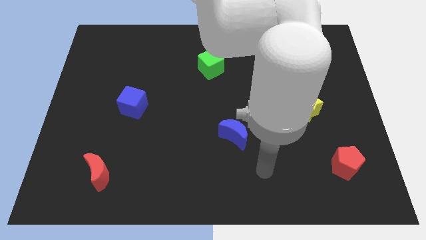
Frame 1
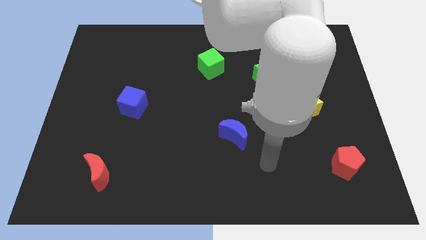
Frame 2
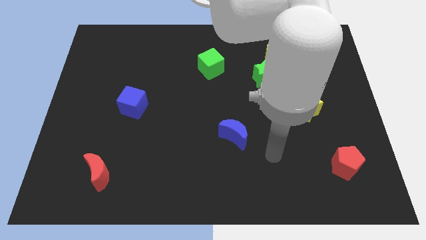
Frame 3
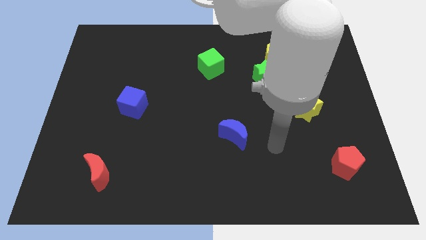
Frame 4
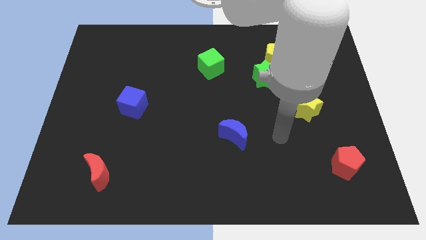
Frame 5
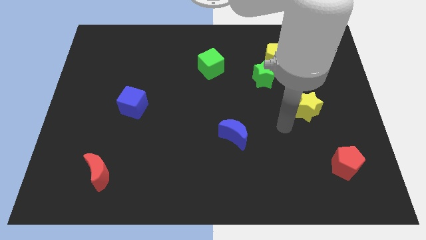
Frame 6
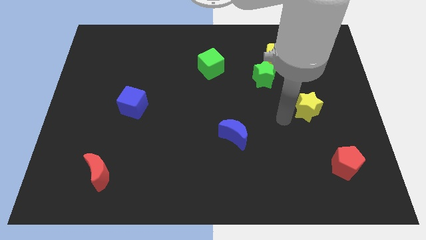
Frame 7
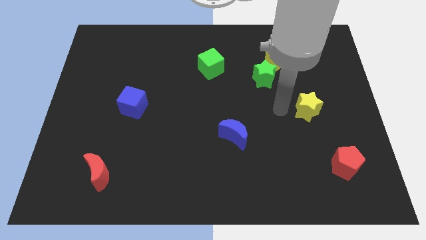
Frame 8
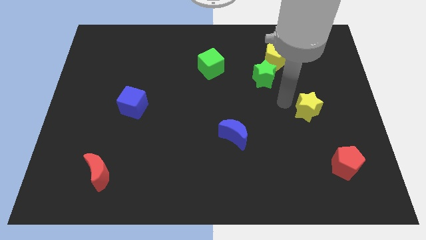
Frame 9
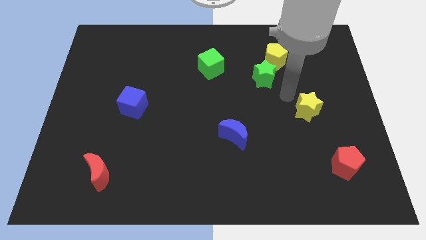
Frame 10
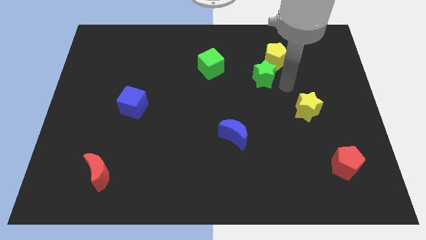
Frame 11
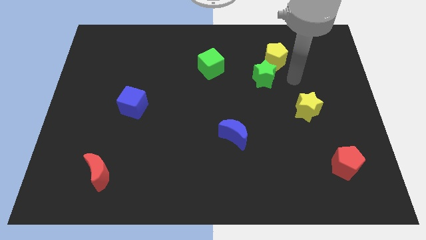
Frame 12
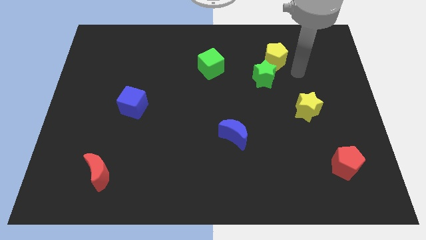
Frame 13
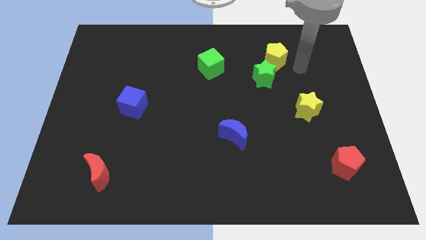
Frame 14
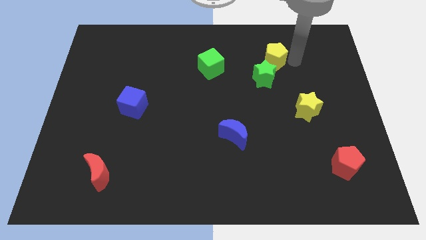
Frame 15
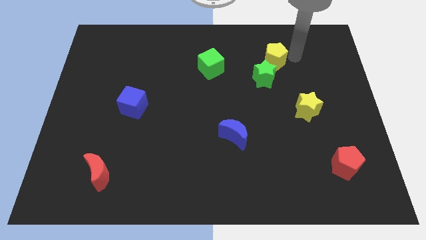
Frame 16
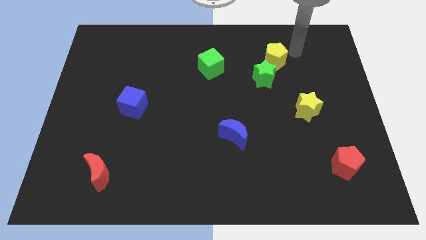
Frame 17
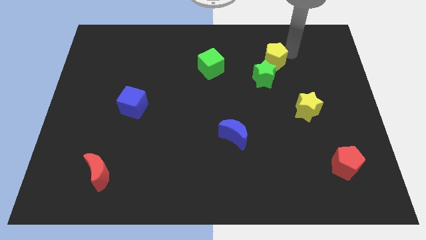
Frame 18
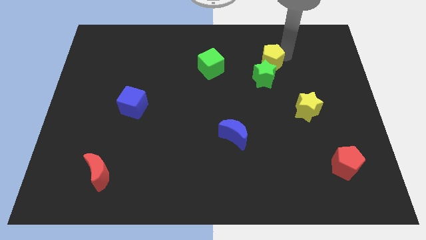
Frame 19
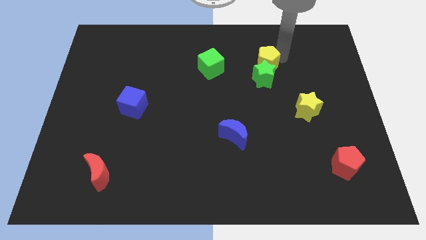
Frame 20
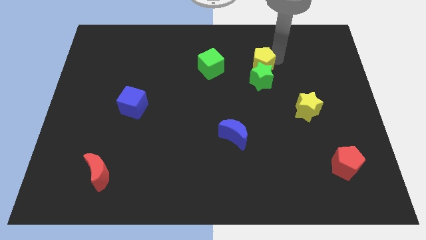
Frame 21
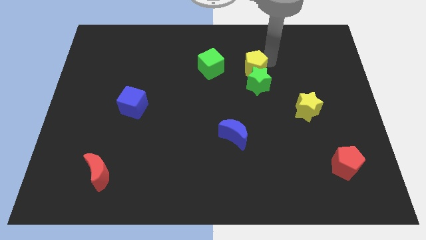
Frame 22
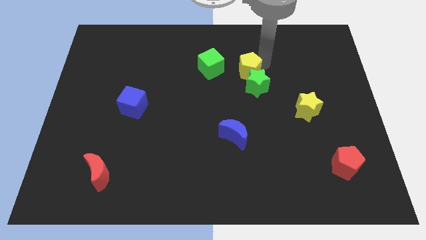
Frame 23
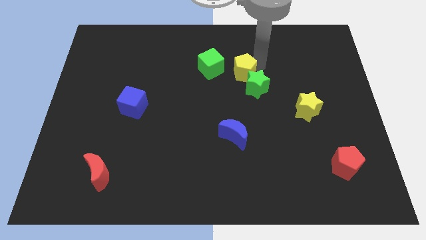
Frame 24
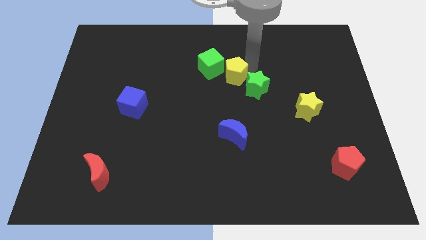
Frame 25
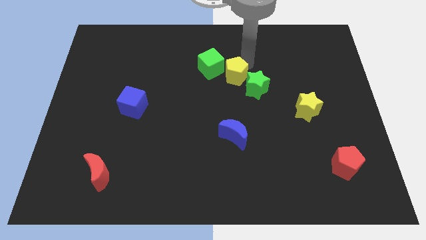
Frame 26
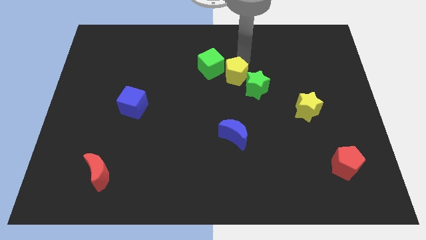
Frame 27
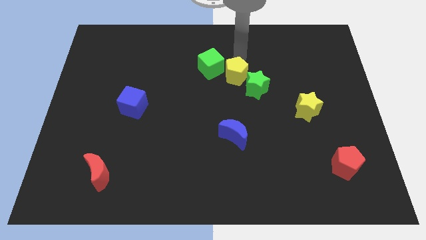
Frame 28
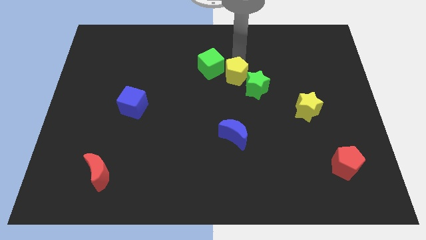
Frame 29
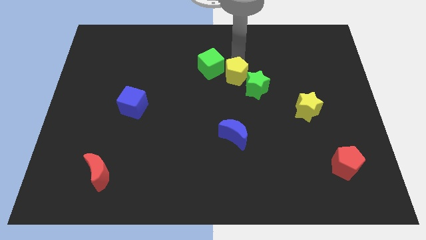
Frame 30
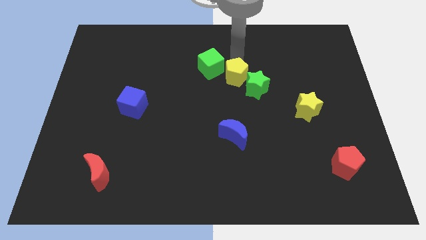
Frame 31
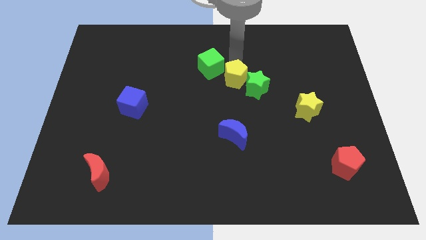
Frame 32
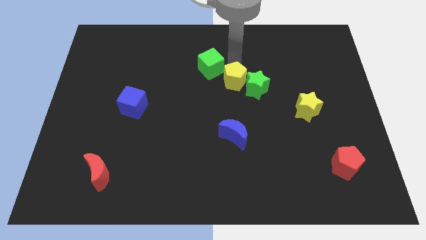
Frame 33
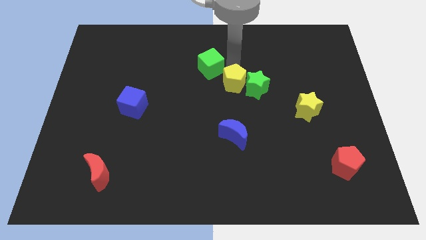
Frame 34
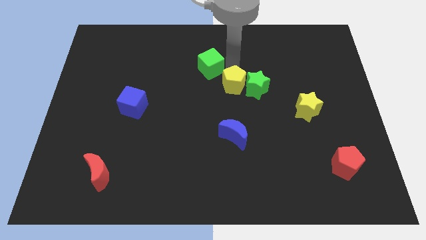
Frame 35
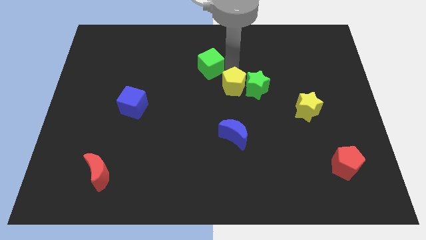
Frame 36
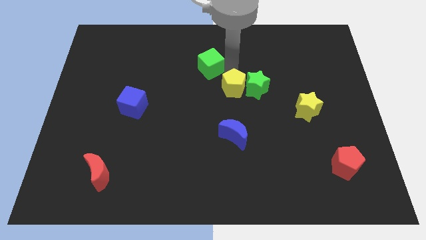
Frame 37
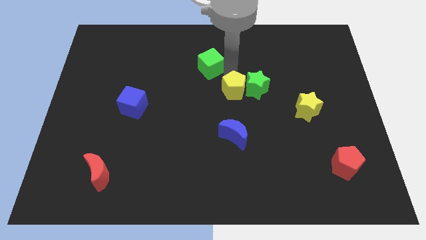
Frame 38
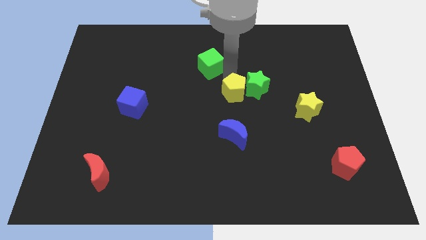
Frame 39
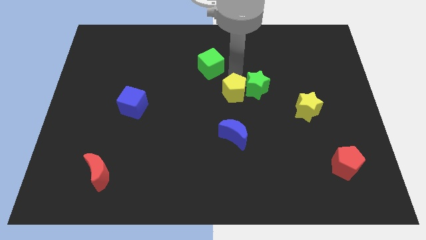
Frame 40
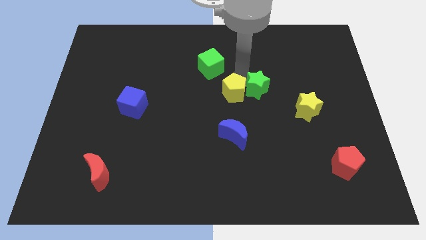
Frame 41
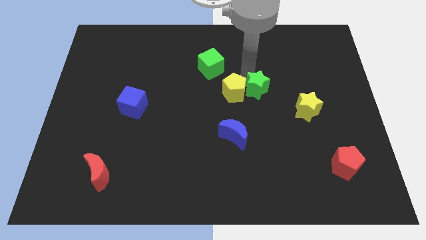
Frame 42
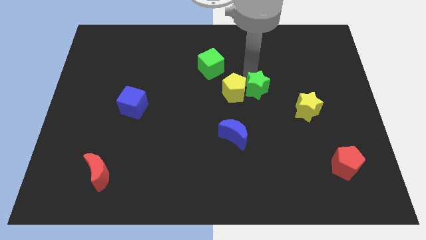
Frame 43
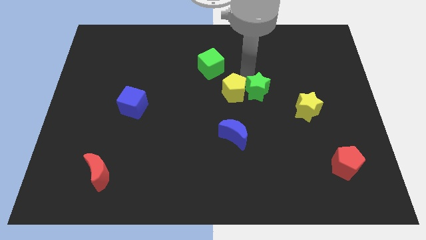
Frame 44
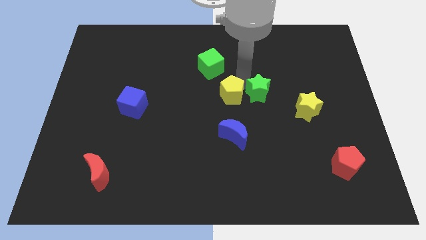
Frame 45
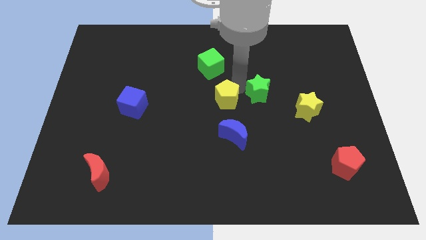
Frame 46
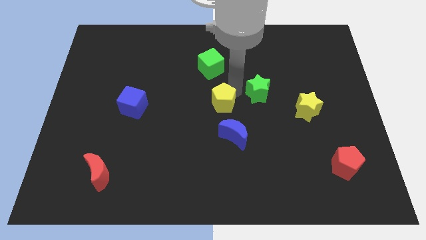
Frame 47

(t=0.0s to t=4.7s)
move the yellow pentagon diagonally downwards and to the left

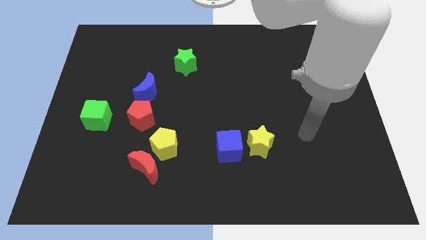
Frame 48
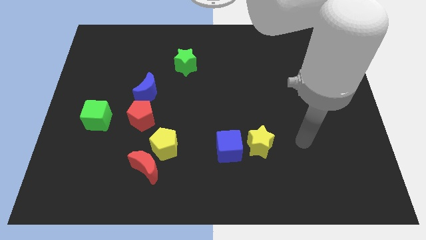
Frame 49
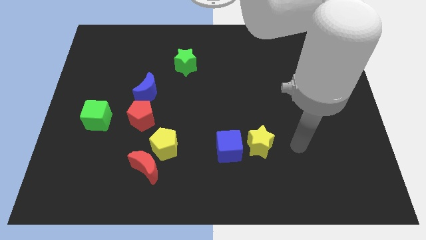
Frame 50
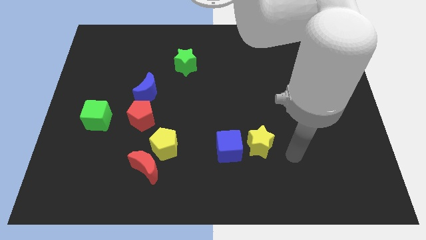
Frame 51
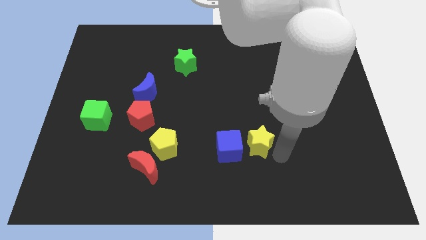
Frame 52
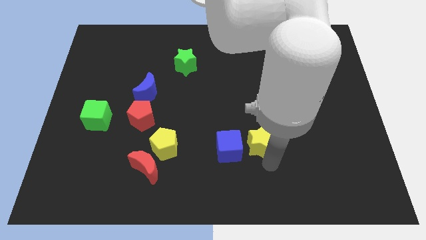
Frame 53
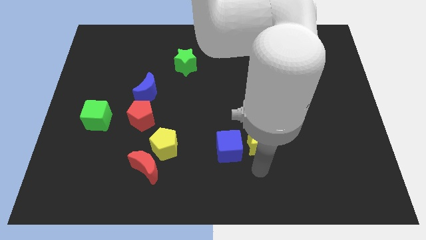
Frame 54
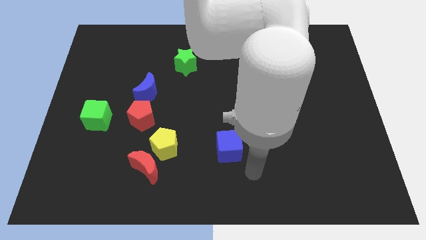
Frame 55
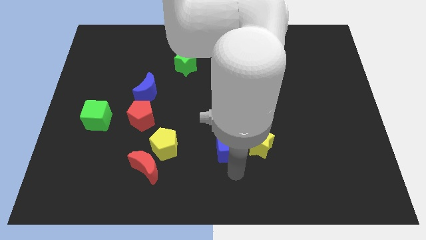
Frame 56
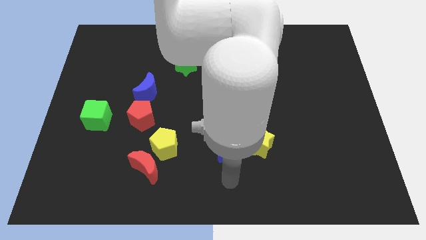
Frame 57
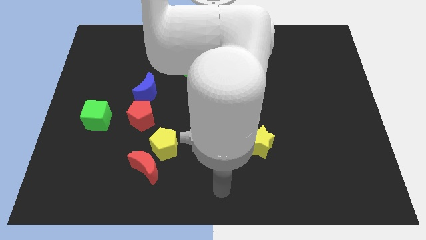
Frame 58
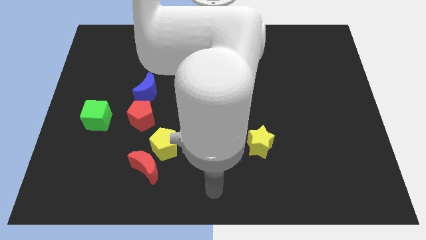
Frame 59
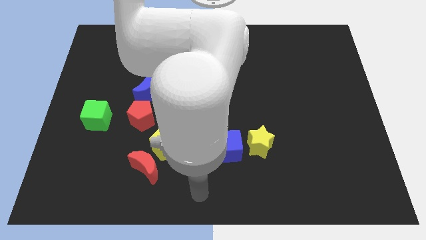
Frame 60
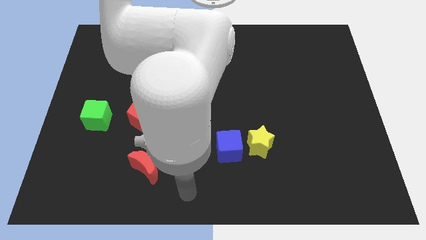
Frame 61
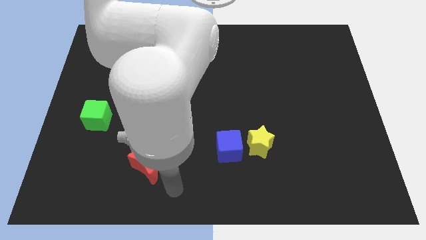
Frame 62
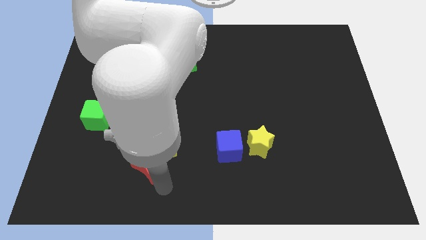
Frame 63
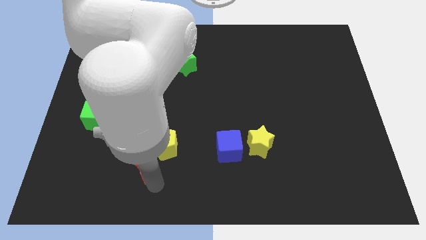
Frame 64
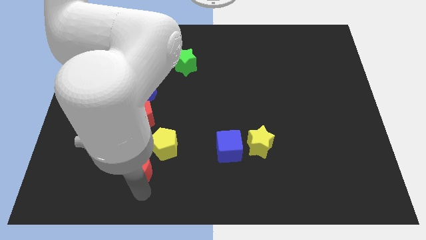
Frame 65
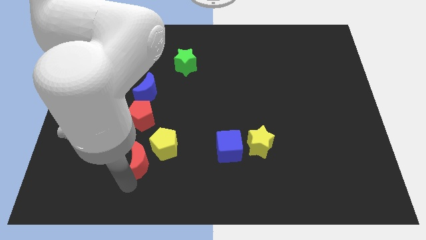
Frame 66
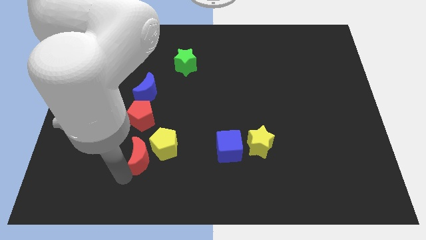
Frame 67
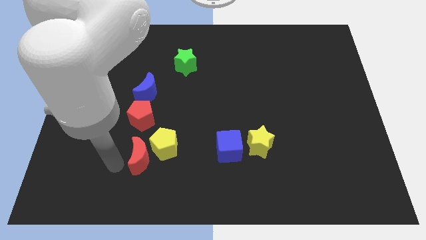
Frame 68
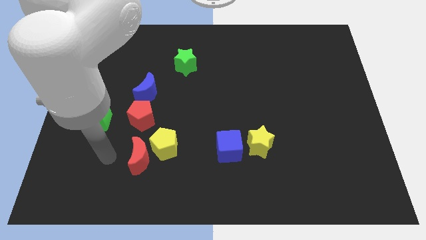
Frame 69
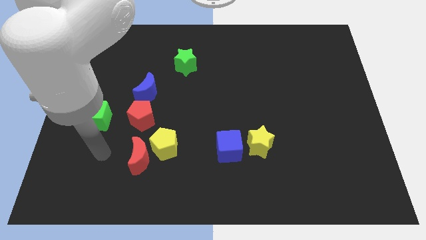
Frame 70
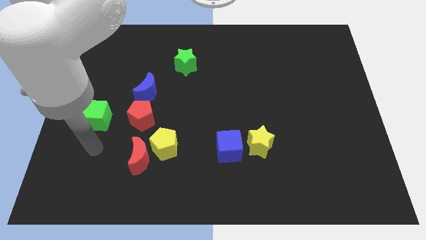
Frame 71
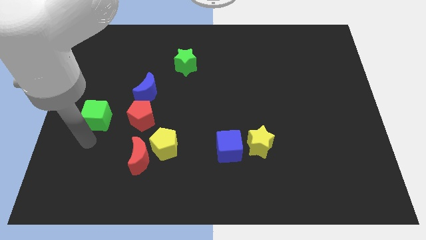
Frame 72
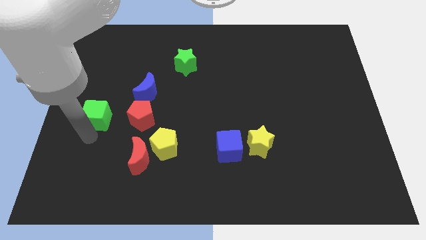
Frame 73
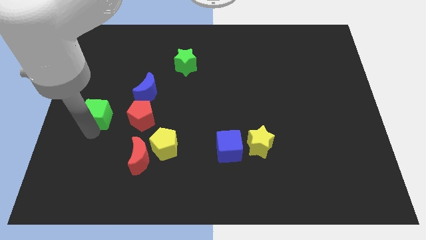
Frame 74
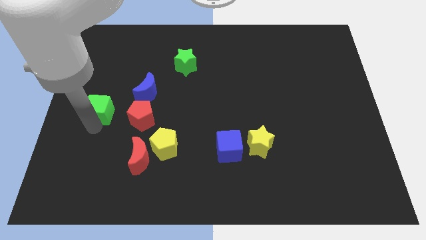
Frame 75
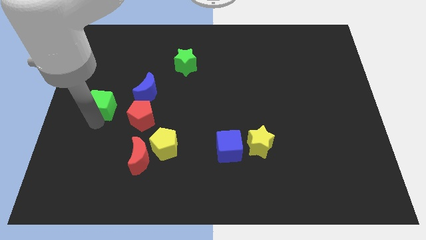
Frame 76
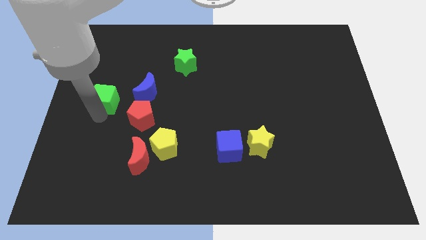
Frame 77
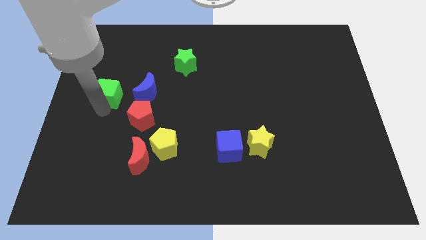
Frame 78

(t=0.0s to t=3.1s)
slightly push the green cube up

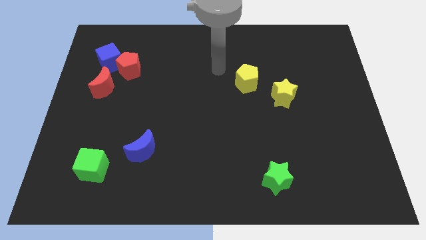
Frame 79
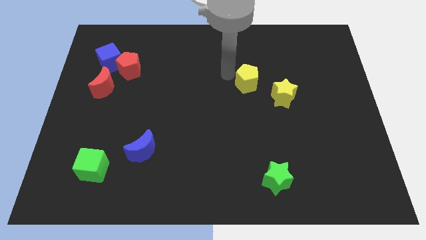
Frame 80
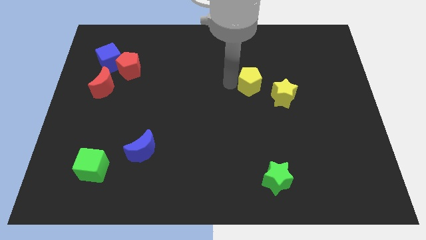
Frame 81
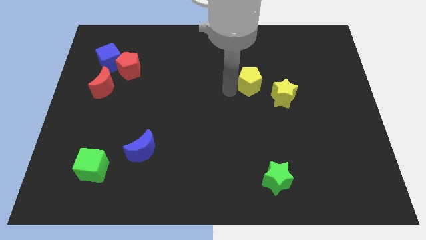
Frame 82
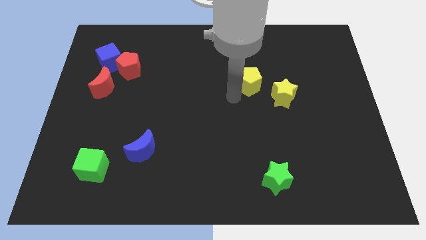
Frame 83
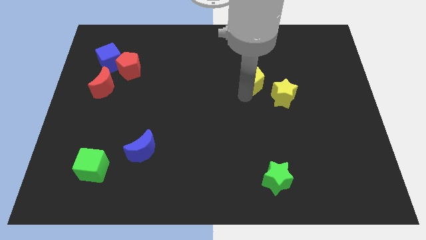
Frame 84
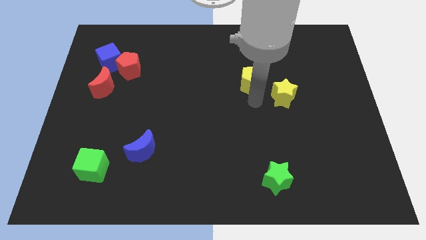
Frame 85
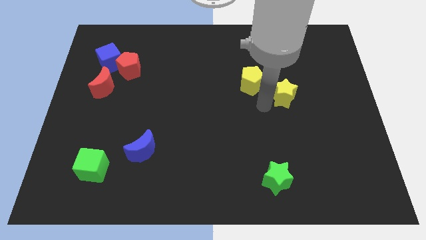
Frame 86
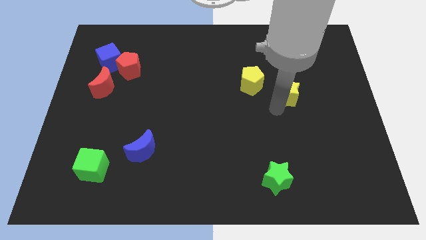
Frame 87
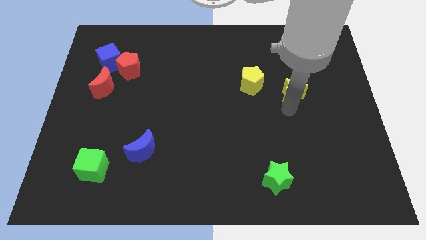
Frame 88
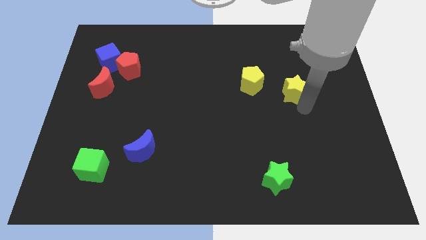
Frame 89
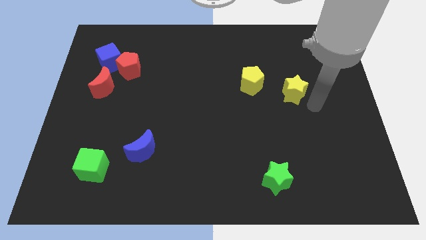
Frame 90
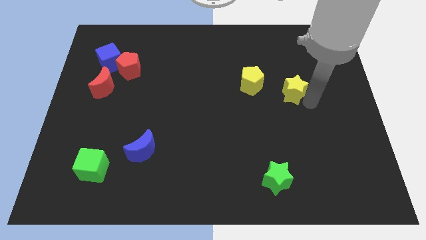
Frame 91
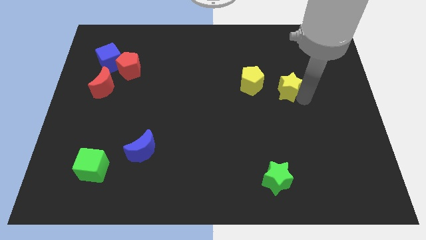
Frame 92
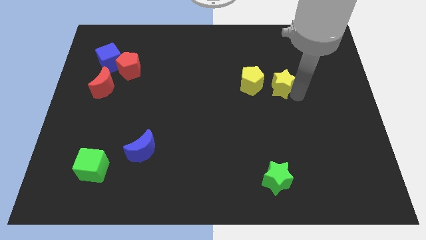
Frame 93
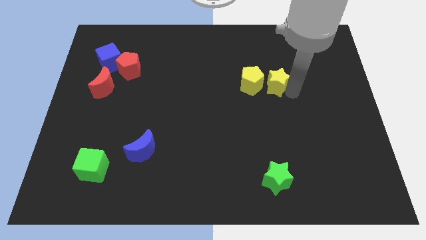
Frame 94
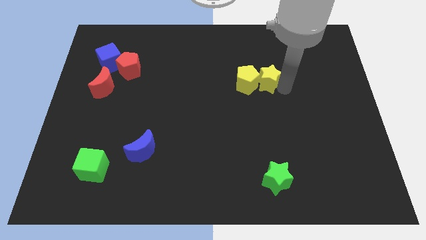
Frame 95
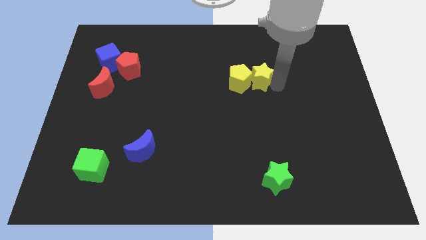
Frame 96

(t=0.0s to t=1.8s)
slide the yellow star up and left a bit
